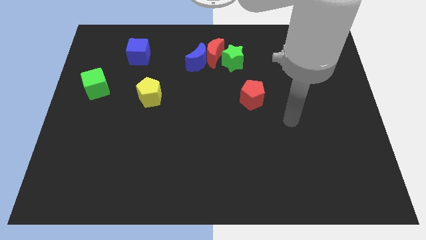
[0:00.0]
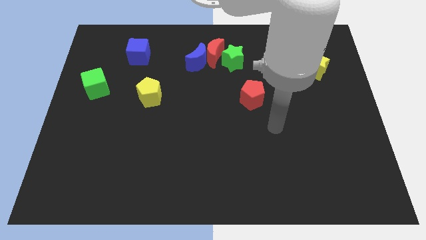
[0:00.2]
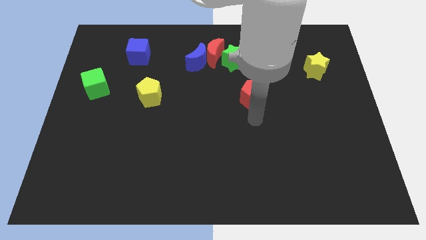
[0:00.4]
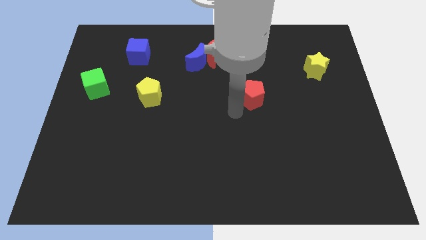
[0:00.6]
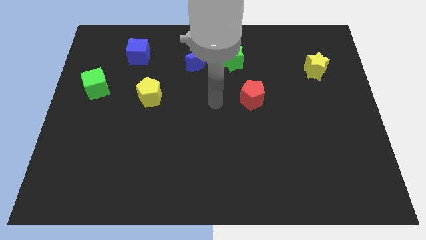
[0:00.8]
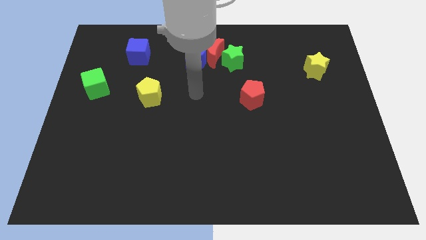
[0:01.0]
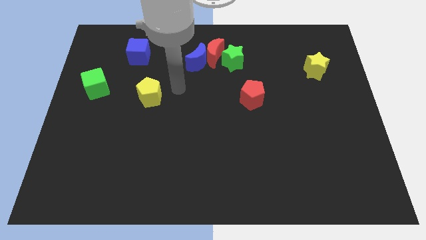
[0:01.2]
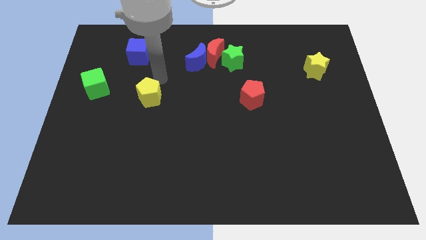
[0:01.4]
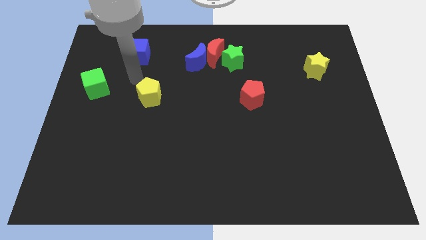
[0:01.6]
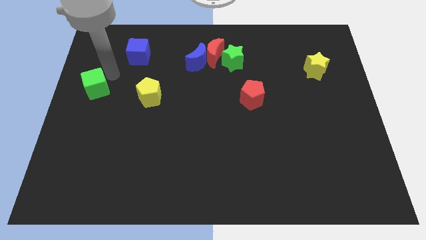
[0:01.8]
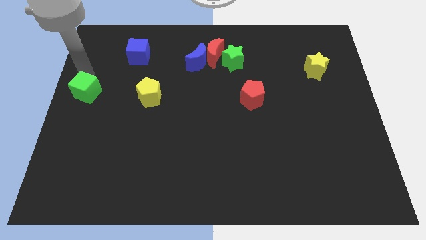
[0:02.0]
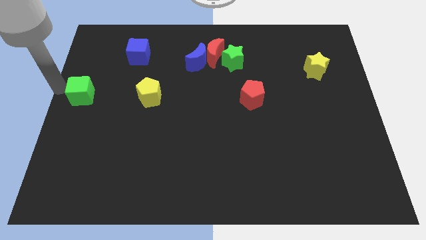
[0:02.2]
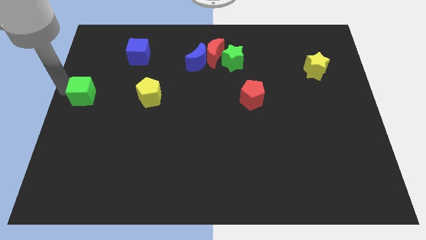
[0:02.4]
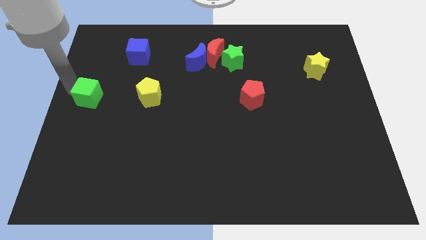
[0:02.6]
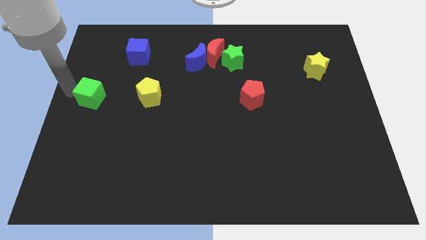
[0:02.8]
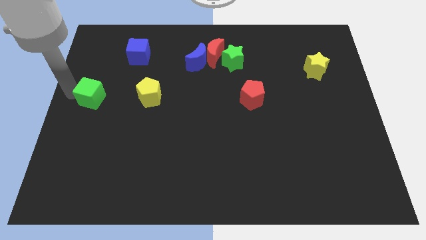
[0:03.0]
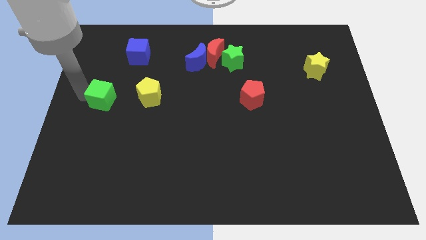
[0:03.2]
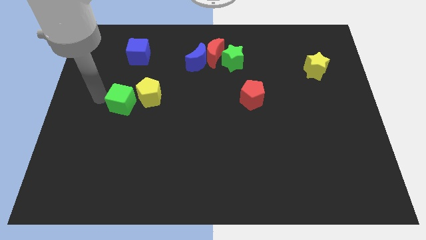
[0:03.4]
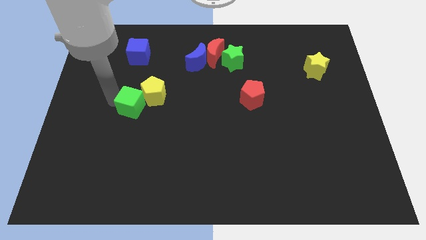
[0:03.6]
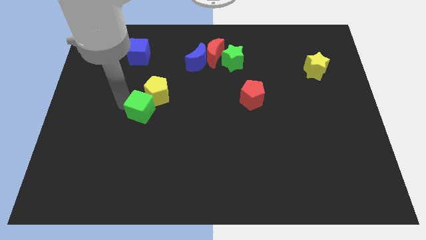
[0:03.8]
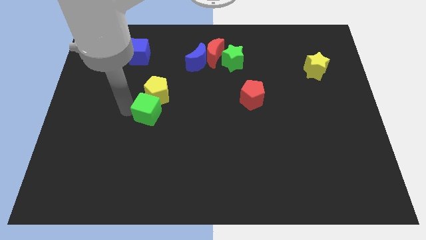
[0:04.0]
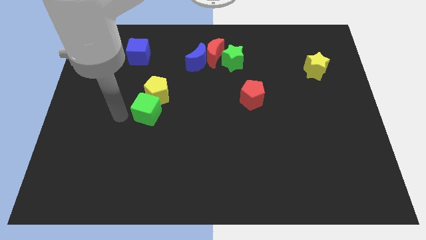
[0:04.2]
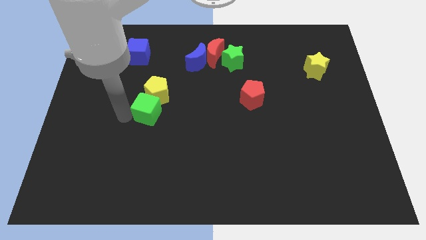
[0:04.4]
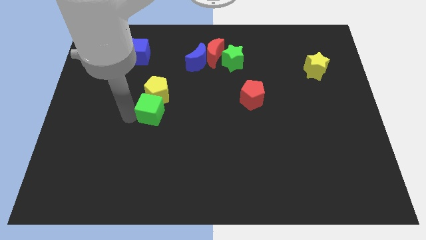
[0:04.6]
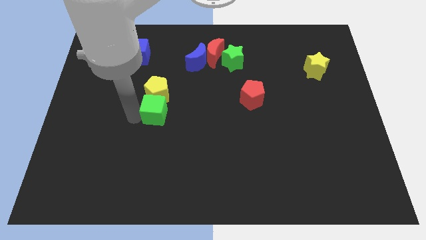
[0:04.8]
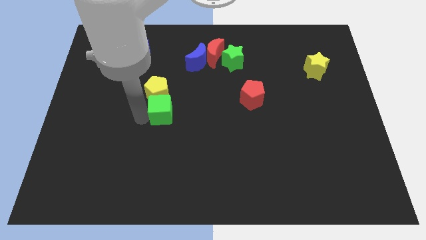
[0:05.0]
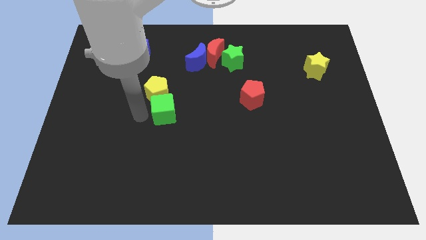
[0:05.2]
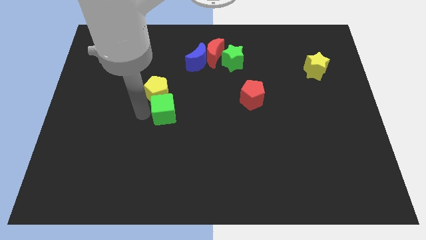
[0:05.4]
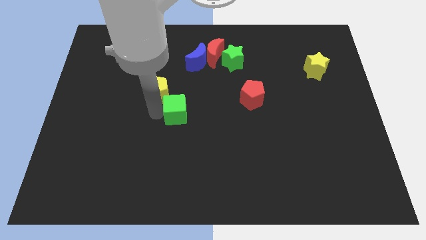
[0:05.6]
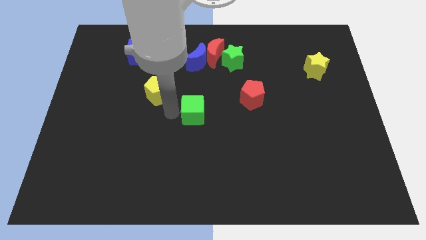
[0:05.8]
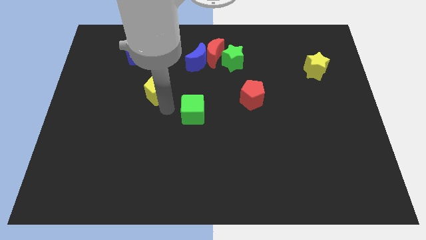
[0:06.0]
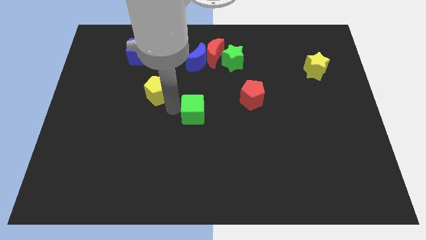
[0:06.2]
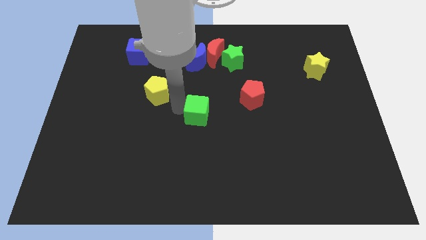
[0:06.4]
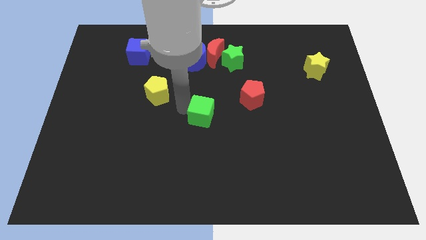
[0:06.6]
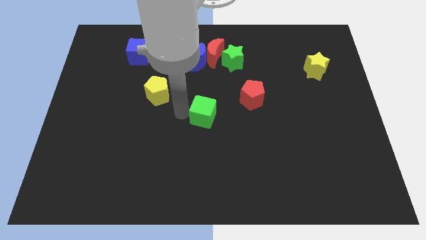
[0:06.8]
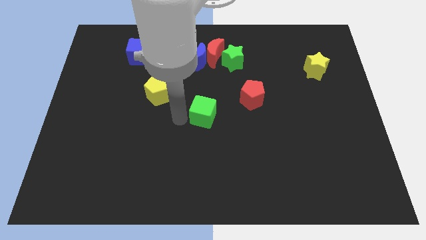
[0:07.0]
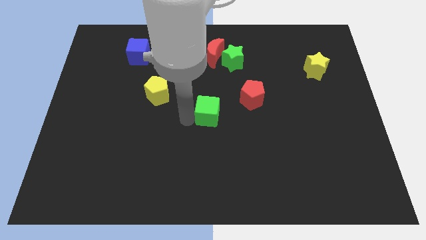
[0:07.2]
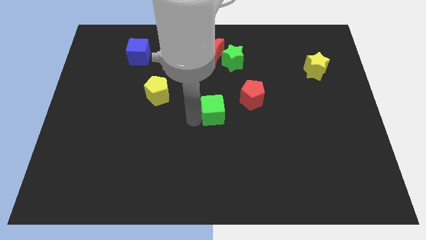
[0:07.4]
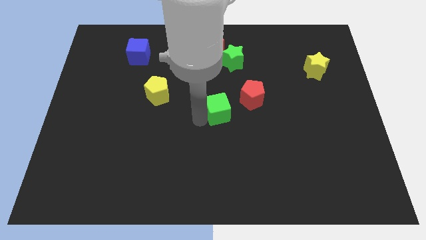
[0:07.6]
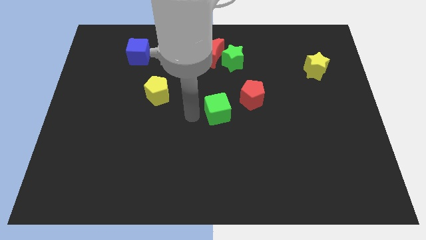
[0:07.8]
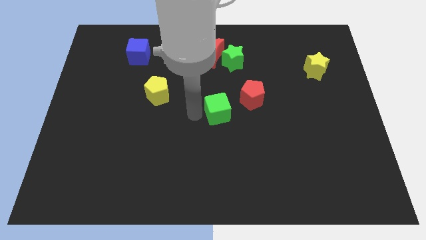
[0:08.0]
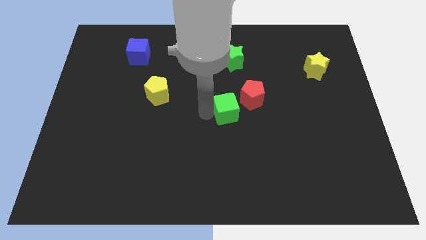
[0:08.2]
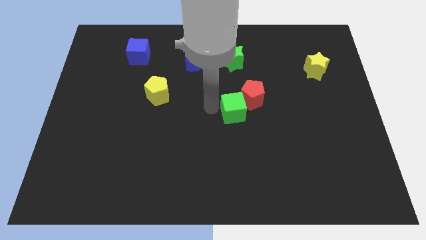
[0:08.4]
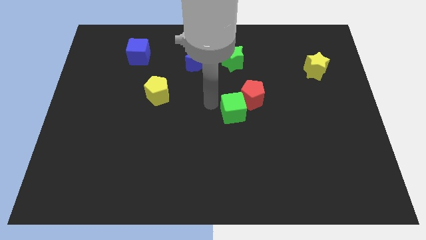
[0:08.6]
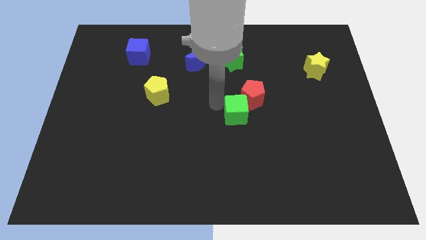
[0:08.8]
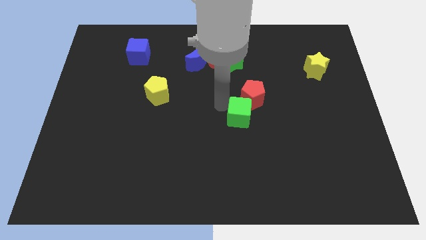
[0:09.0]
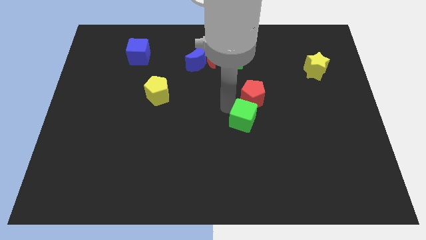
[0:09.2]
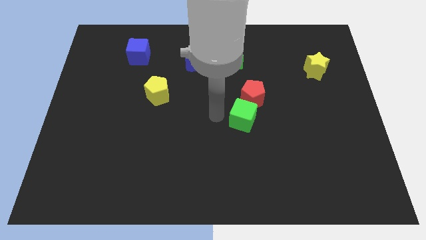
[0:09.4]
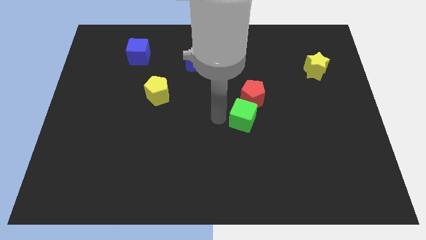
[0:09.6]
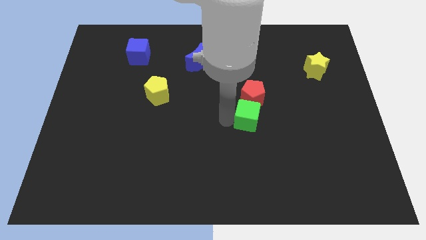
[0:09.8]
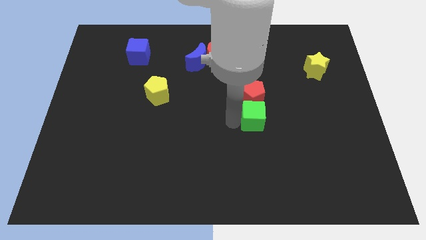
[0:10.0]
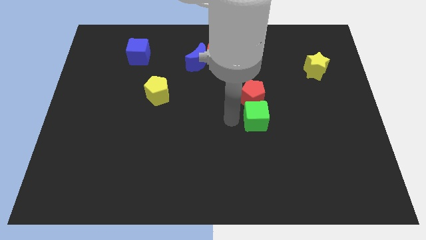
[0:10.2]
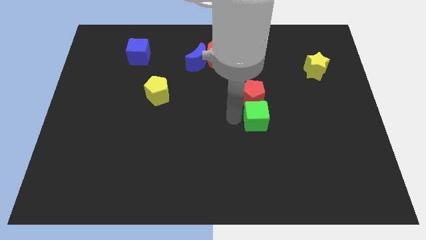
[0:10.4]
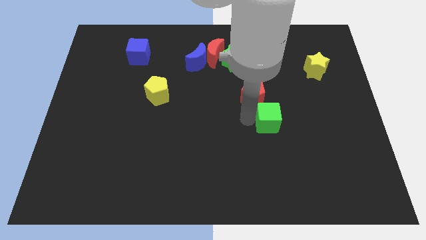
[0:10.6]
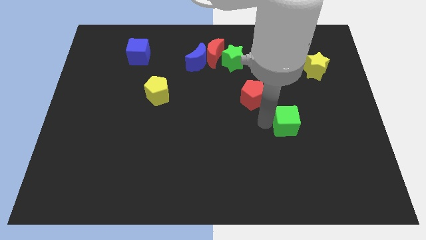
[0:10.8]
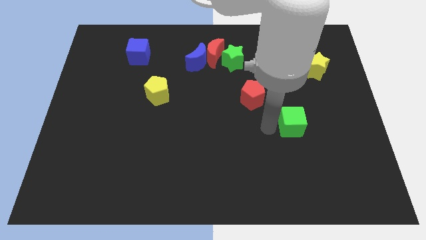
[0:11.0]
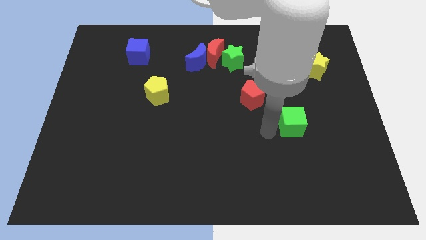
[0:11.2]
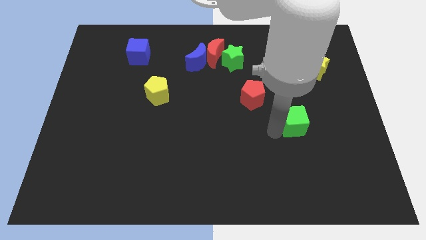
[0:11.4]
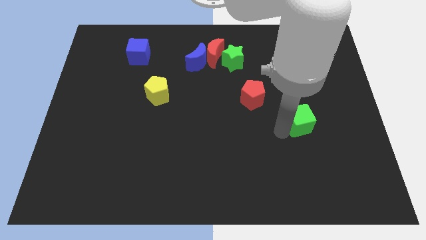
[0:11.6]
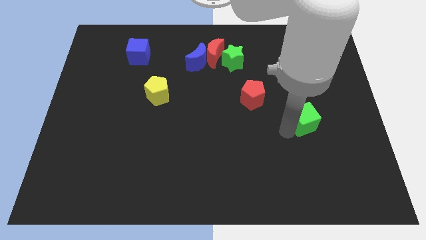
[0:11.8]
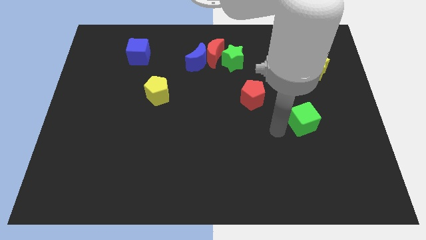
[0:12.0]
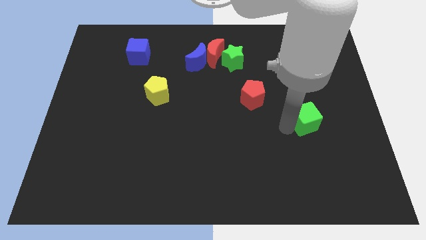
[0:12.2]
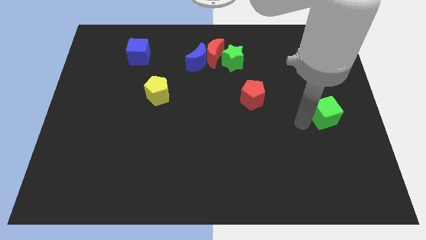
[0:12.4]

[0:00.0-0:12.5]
slide the green cube to the right side of the board
